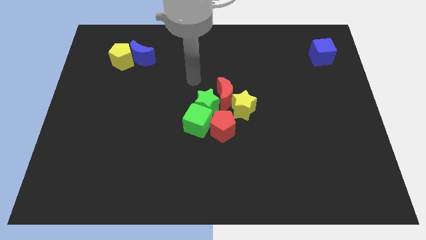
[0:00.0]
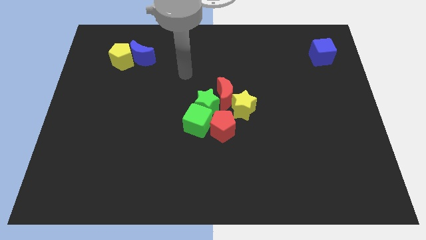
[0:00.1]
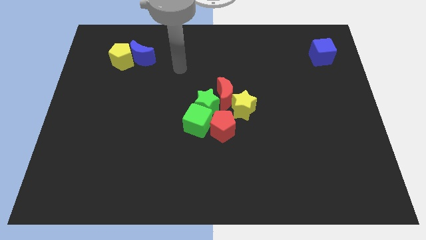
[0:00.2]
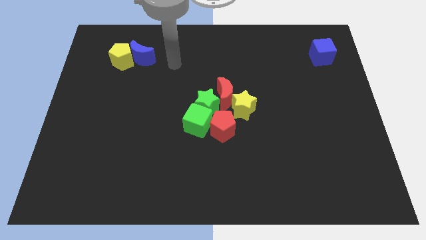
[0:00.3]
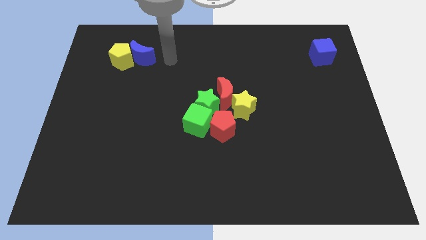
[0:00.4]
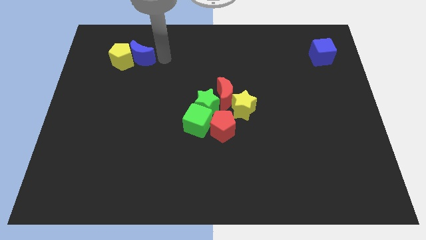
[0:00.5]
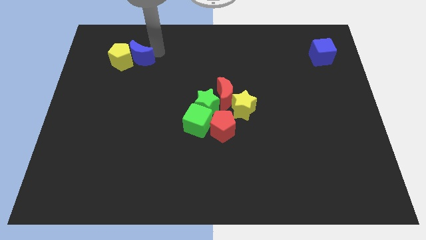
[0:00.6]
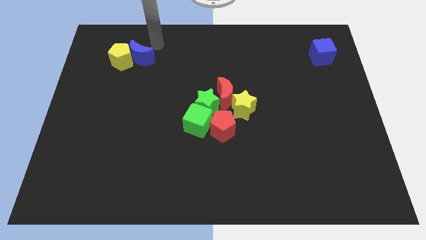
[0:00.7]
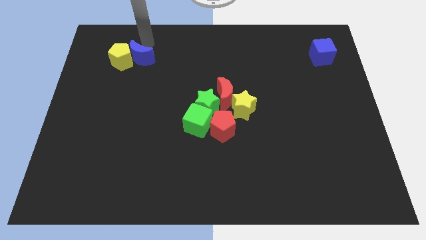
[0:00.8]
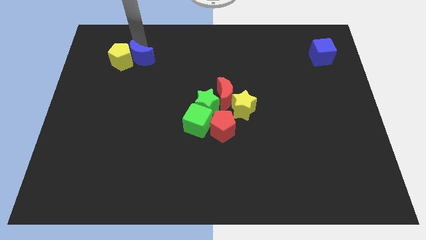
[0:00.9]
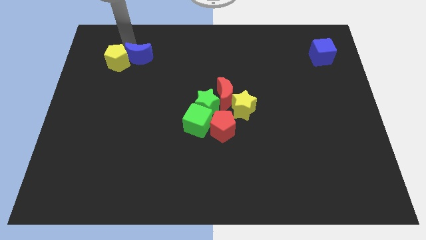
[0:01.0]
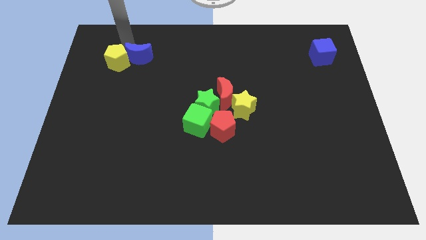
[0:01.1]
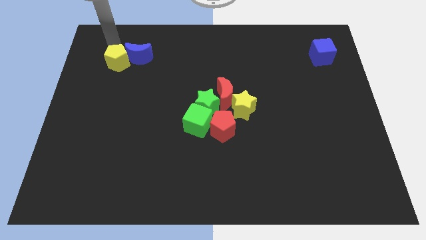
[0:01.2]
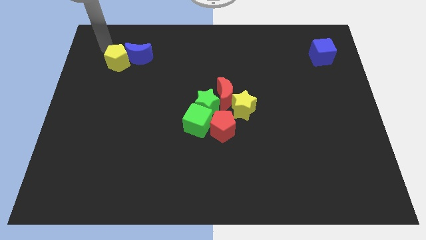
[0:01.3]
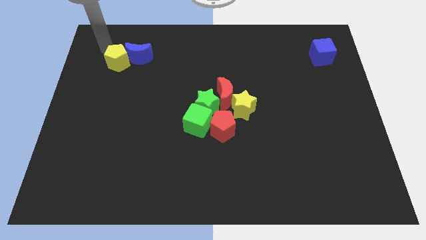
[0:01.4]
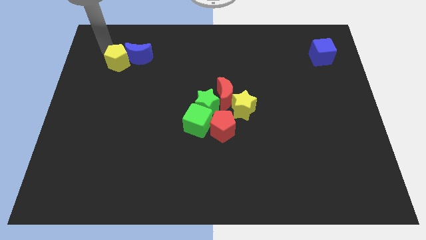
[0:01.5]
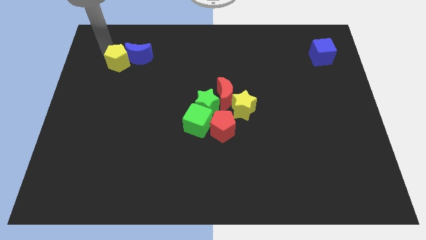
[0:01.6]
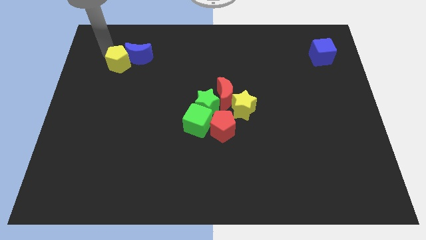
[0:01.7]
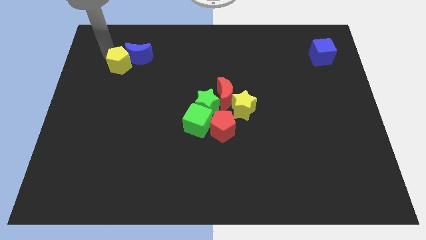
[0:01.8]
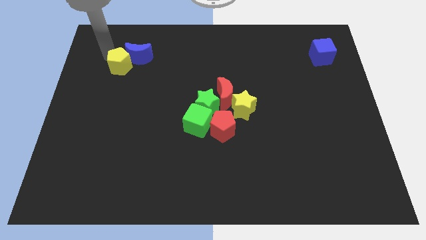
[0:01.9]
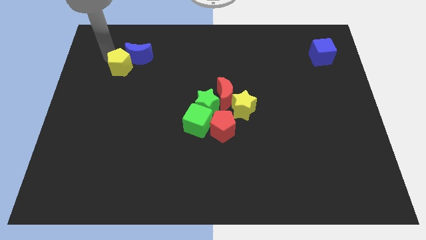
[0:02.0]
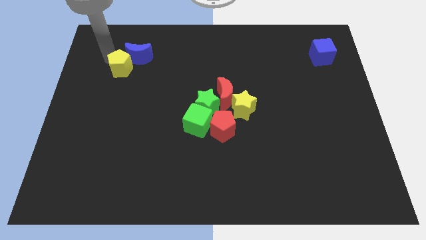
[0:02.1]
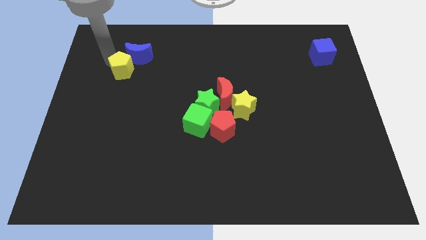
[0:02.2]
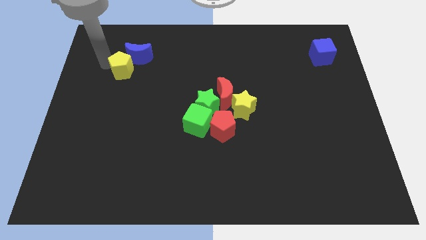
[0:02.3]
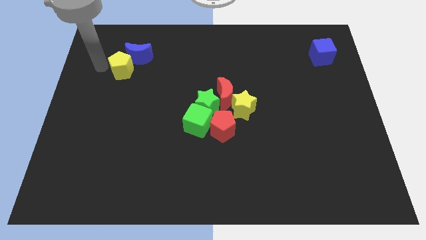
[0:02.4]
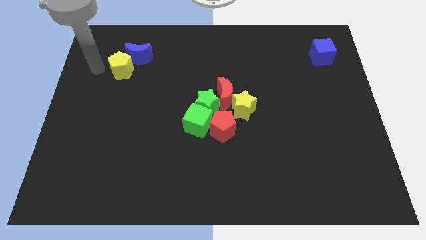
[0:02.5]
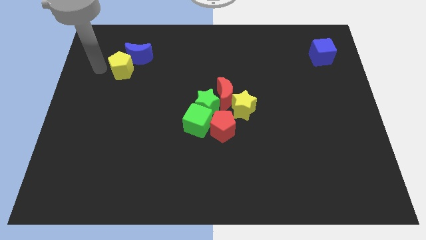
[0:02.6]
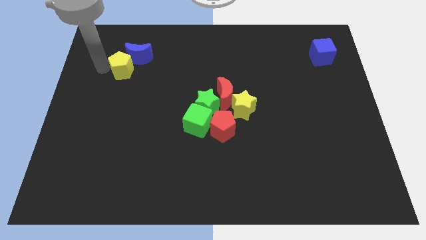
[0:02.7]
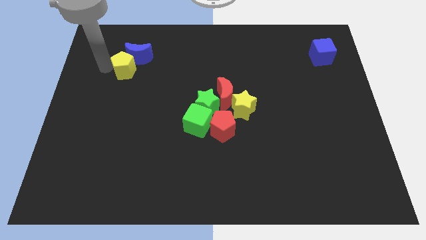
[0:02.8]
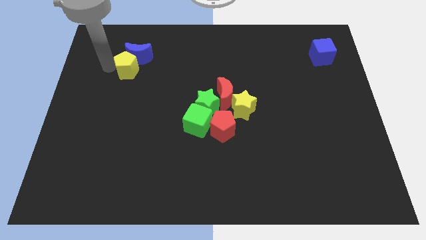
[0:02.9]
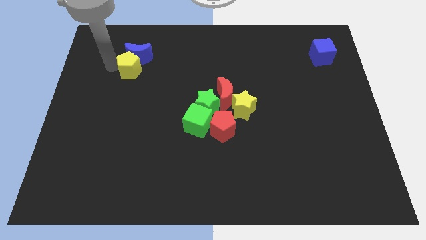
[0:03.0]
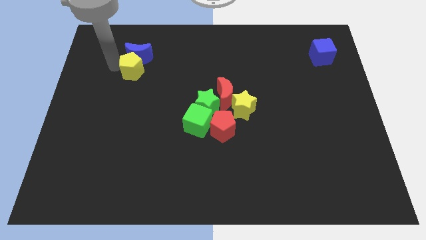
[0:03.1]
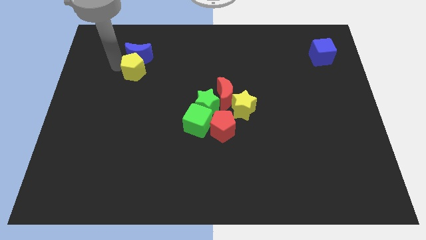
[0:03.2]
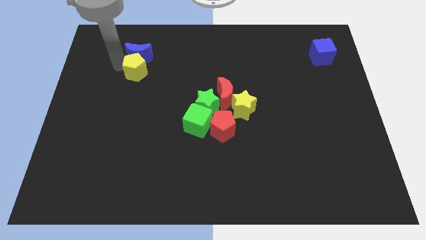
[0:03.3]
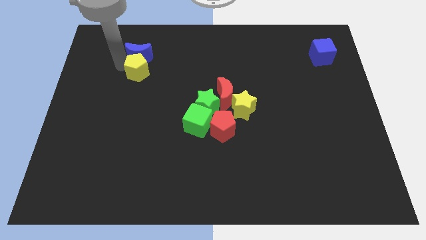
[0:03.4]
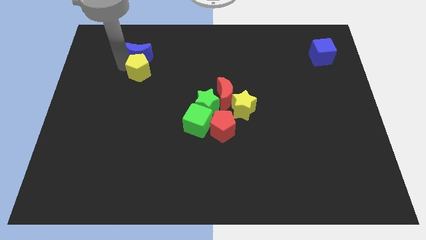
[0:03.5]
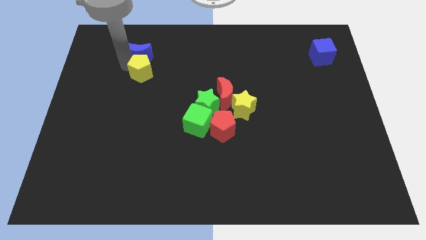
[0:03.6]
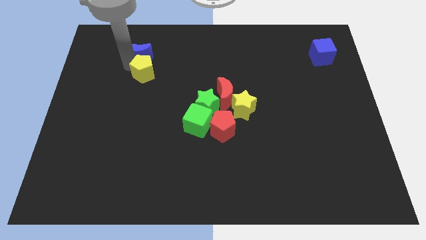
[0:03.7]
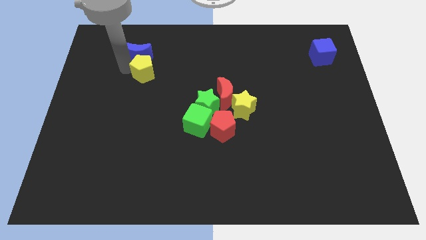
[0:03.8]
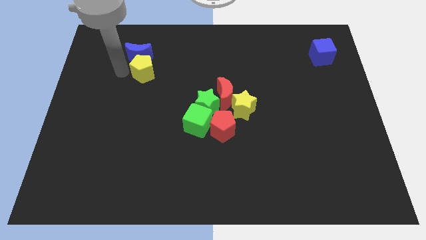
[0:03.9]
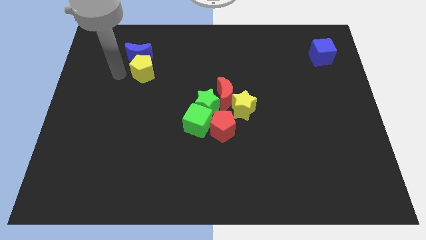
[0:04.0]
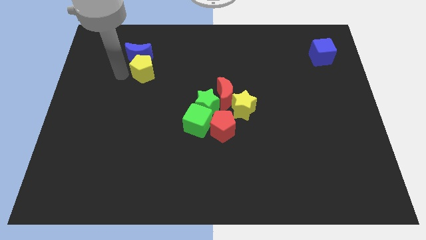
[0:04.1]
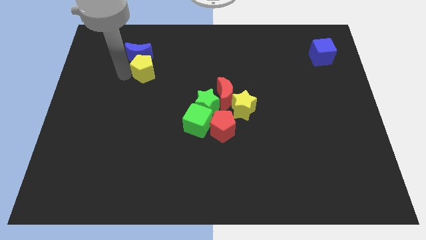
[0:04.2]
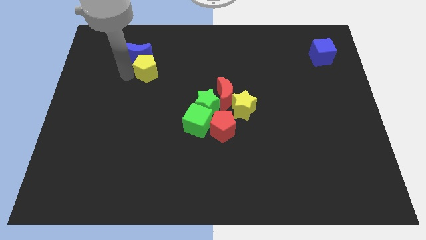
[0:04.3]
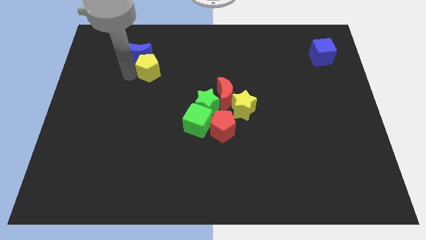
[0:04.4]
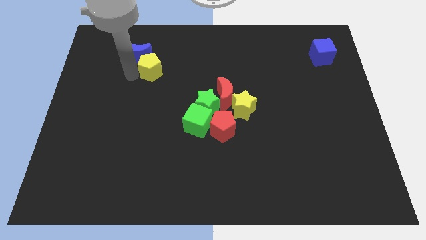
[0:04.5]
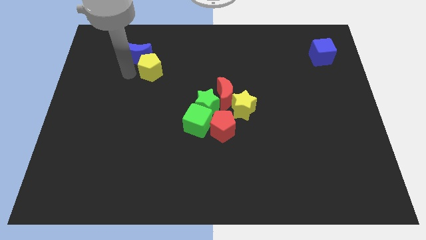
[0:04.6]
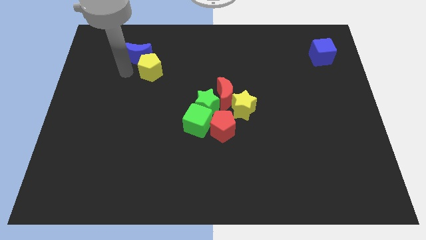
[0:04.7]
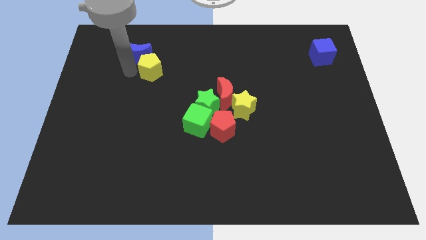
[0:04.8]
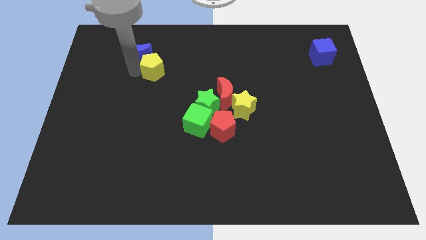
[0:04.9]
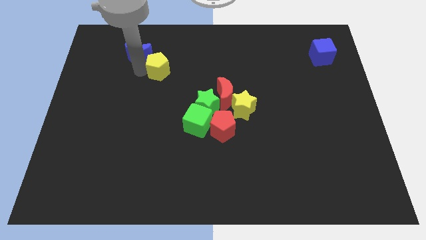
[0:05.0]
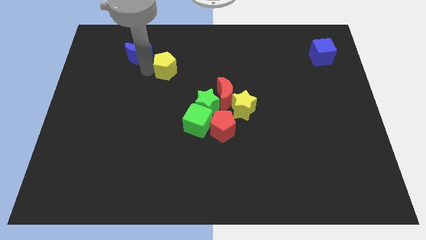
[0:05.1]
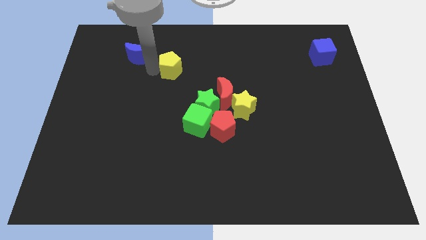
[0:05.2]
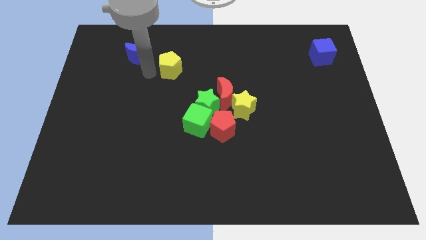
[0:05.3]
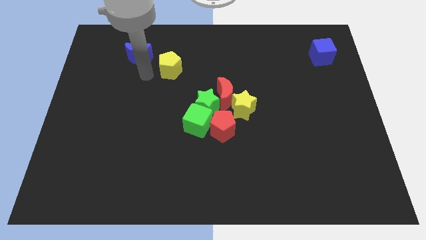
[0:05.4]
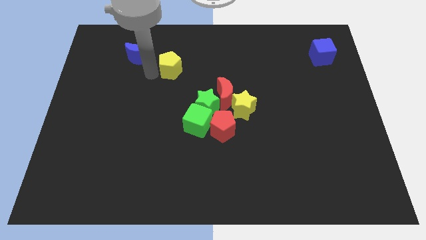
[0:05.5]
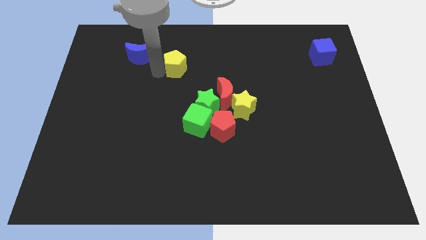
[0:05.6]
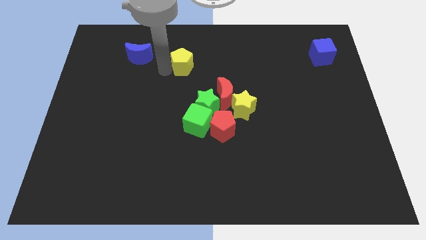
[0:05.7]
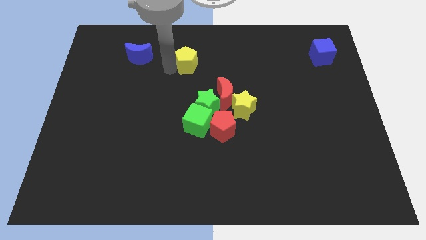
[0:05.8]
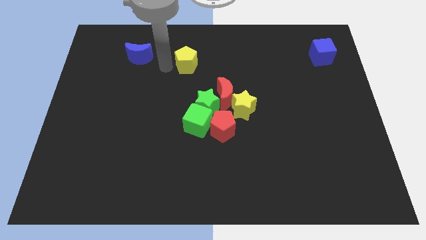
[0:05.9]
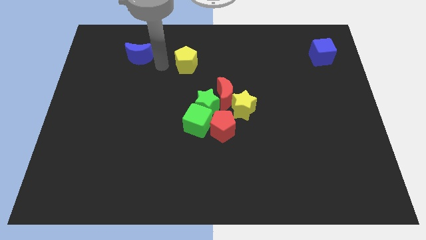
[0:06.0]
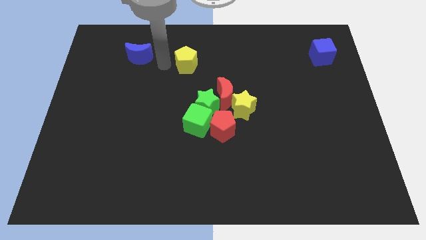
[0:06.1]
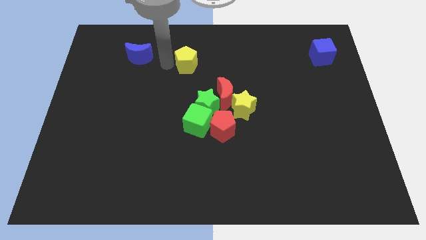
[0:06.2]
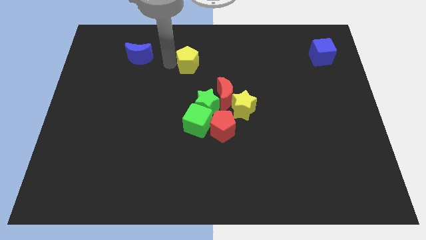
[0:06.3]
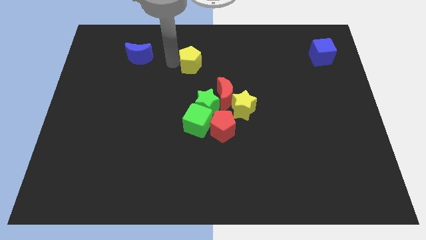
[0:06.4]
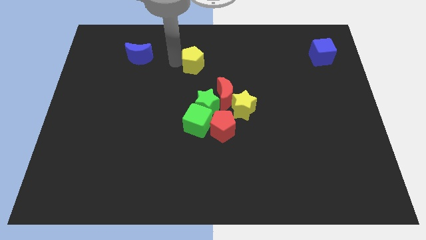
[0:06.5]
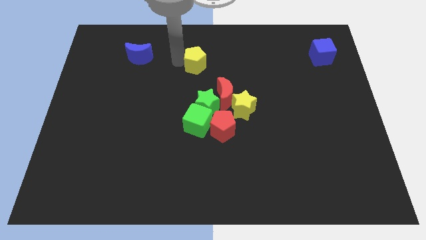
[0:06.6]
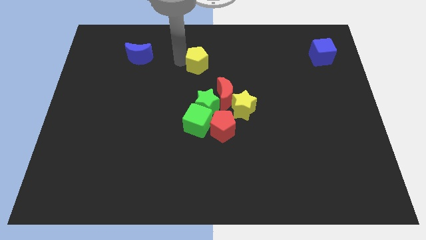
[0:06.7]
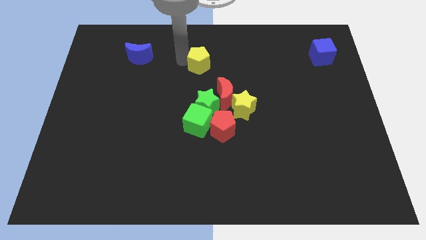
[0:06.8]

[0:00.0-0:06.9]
move the yellow pentagon to the right

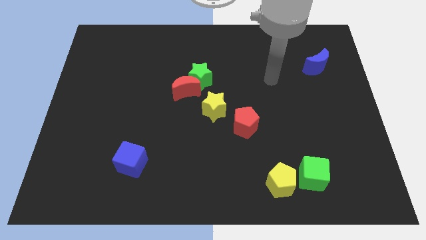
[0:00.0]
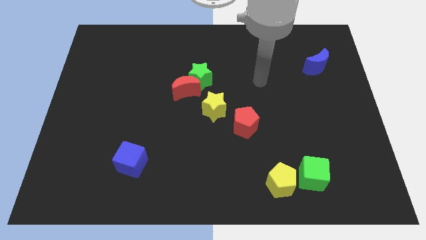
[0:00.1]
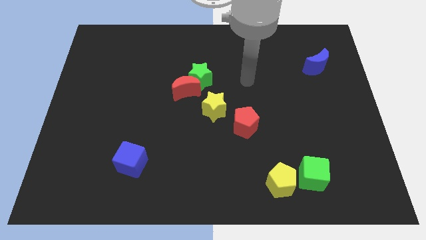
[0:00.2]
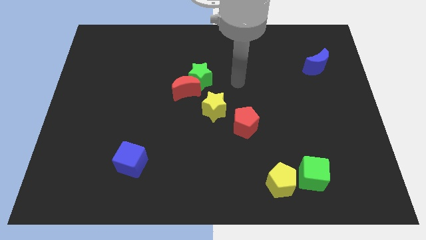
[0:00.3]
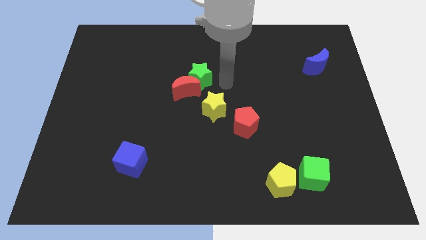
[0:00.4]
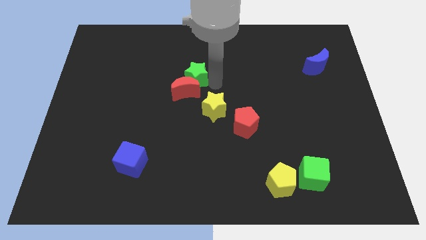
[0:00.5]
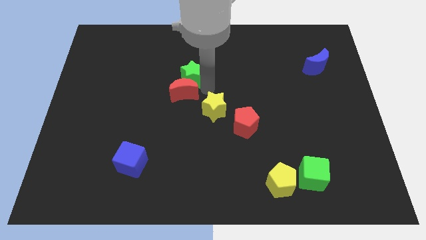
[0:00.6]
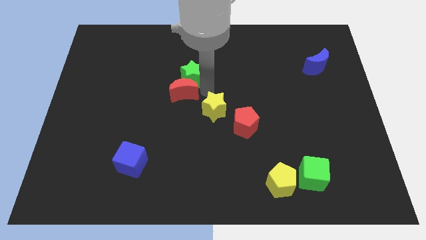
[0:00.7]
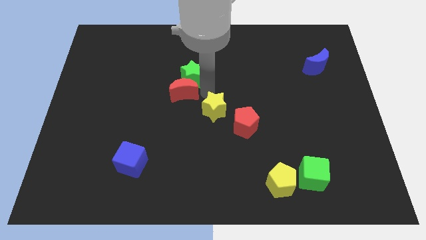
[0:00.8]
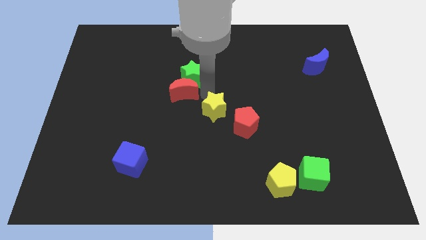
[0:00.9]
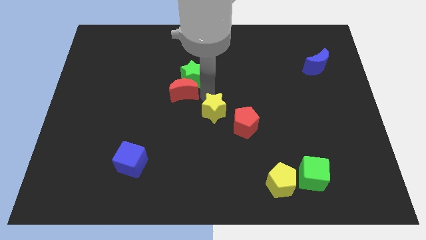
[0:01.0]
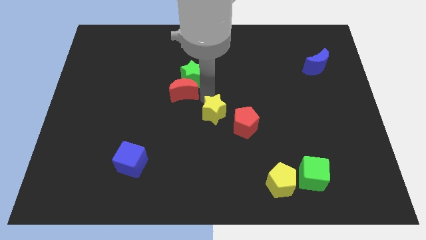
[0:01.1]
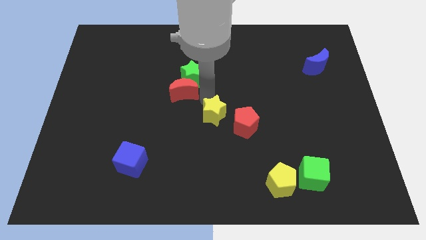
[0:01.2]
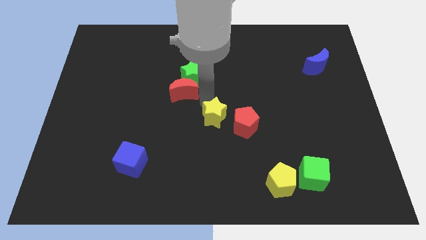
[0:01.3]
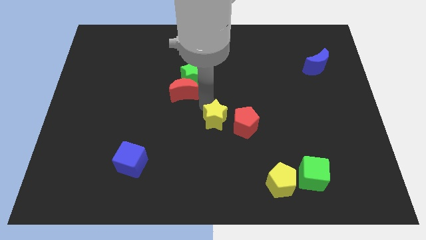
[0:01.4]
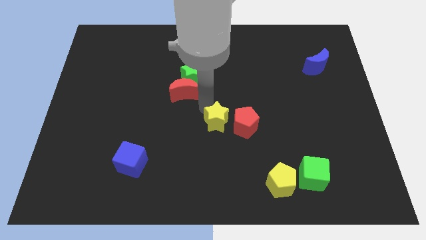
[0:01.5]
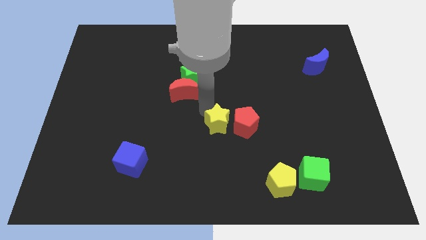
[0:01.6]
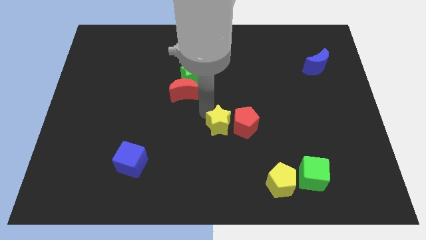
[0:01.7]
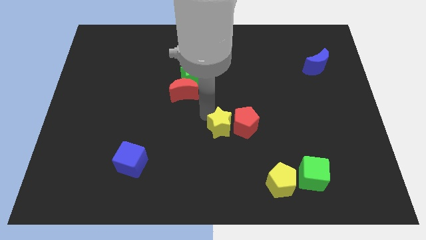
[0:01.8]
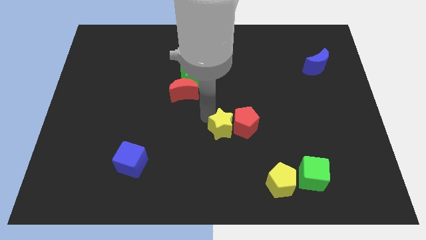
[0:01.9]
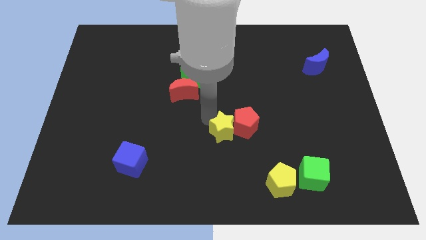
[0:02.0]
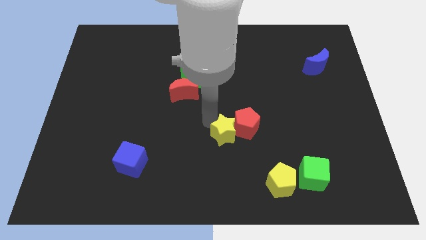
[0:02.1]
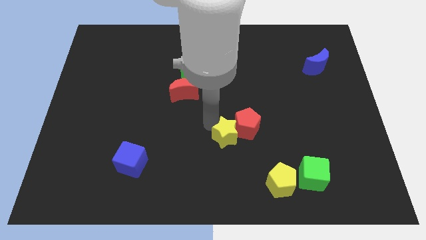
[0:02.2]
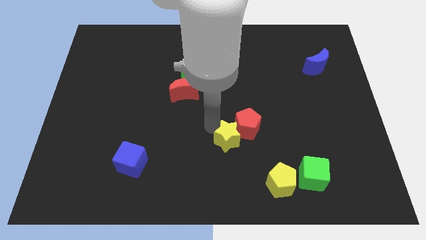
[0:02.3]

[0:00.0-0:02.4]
push the yellow star a bit diagonally downwards and right
